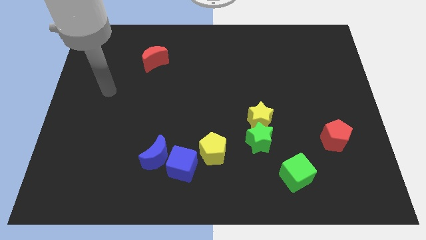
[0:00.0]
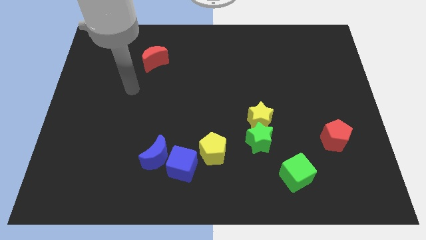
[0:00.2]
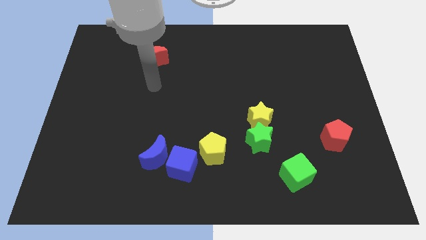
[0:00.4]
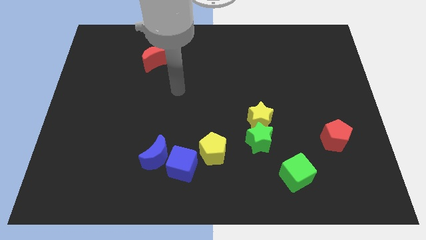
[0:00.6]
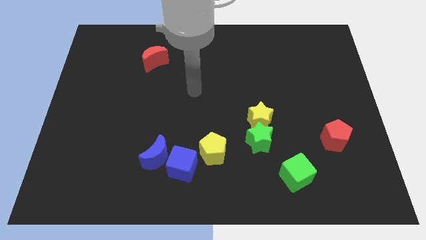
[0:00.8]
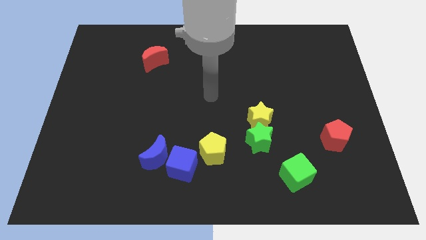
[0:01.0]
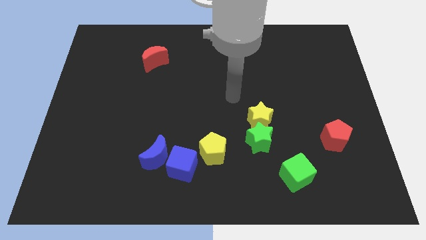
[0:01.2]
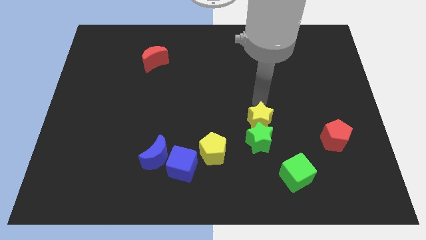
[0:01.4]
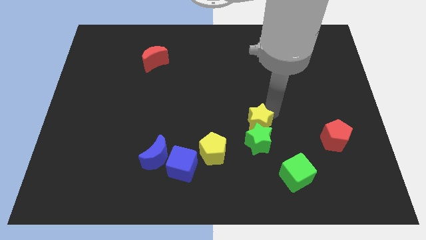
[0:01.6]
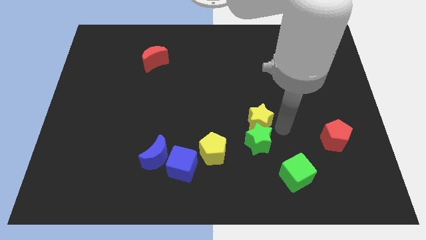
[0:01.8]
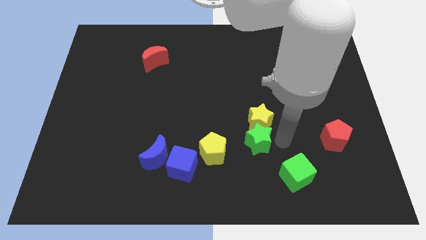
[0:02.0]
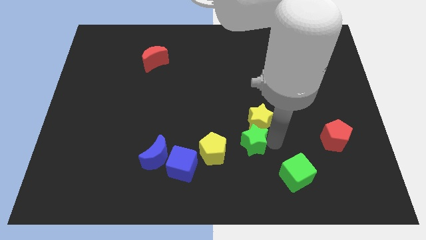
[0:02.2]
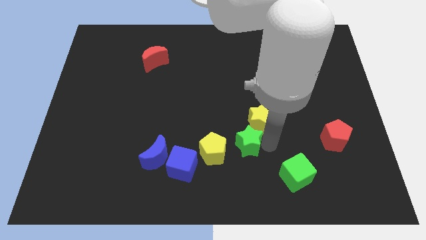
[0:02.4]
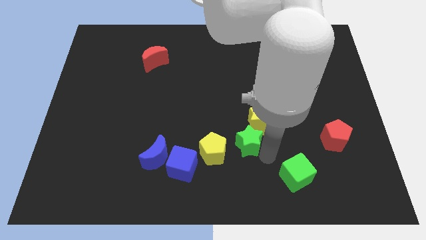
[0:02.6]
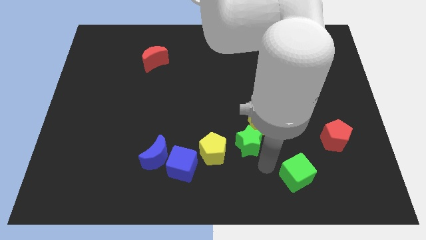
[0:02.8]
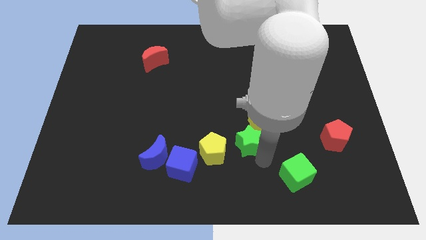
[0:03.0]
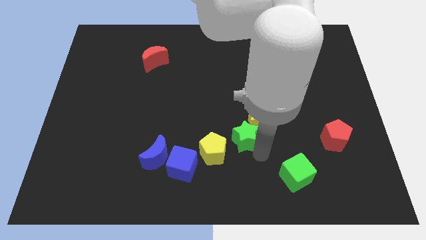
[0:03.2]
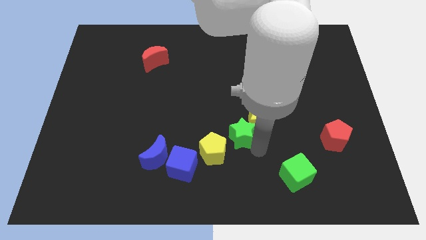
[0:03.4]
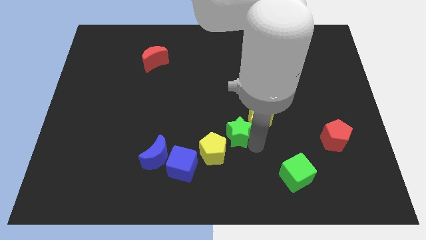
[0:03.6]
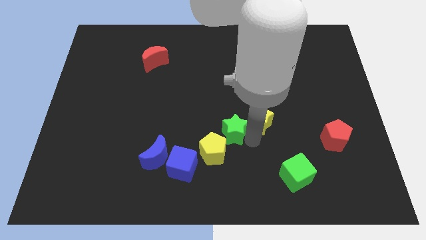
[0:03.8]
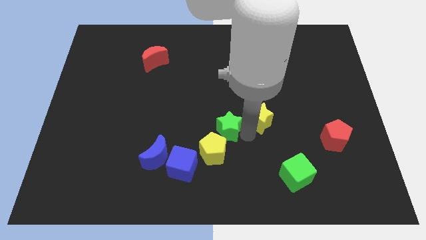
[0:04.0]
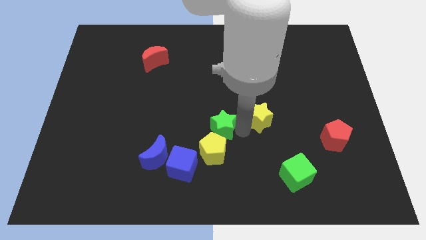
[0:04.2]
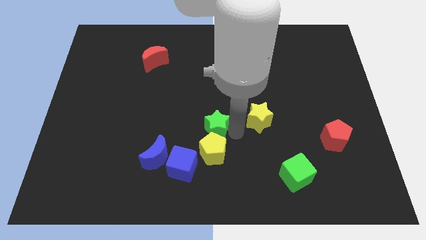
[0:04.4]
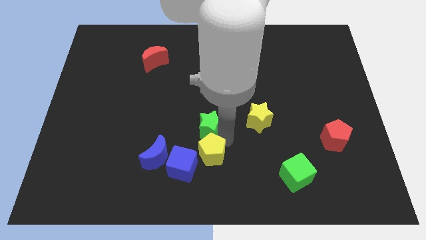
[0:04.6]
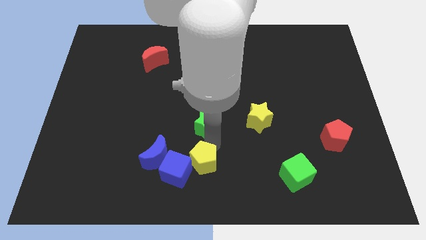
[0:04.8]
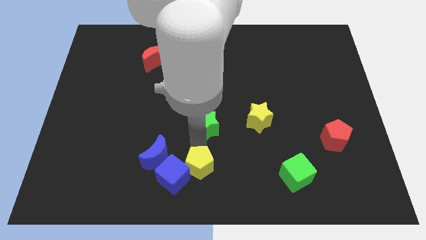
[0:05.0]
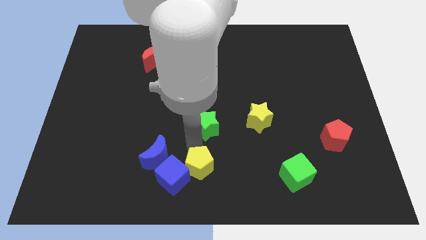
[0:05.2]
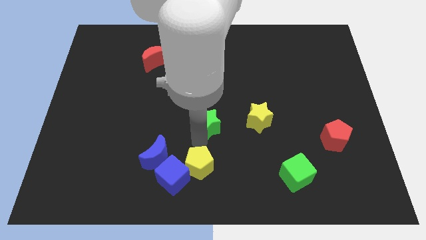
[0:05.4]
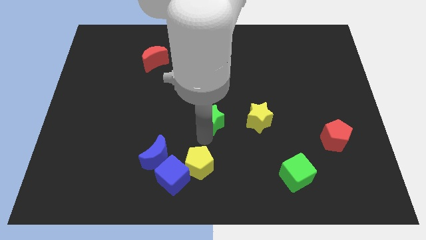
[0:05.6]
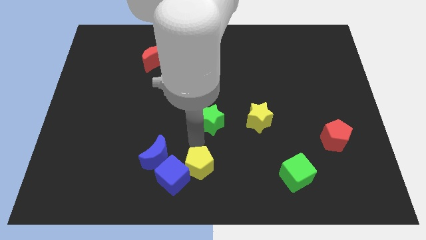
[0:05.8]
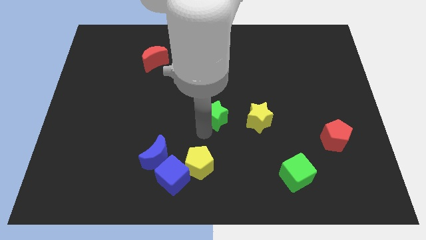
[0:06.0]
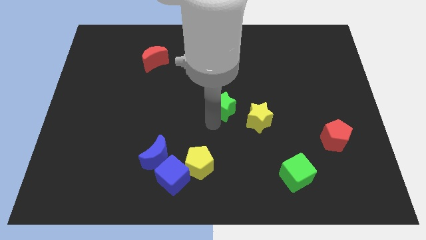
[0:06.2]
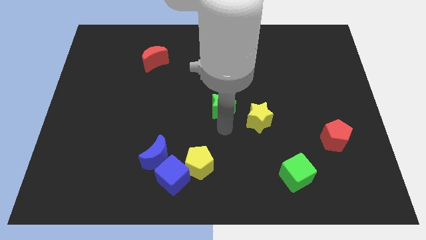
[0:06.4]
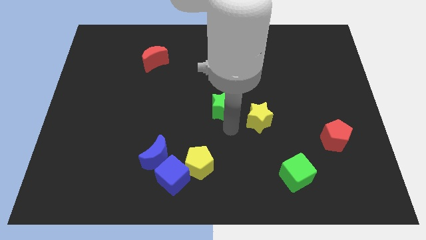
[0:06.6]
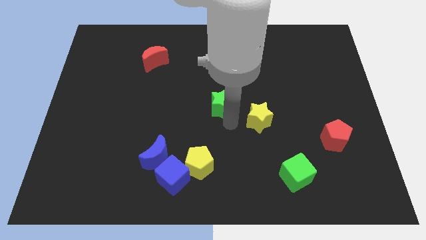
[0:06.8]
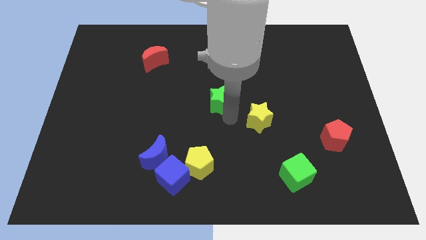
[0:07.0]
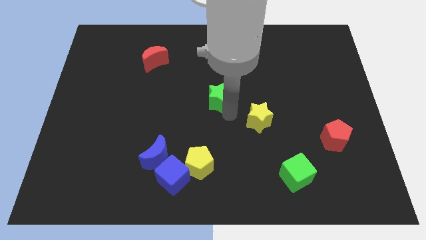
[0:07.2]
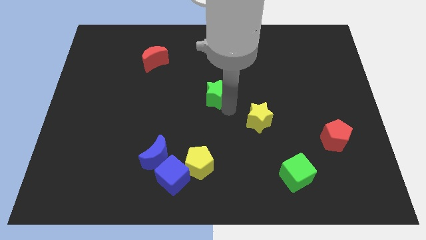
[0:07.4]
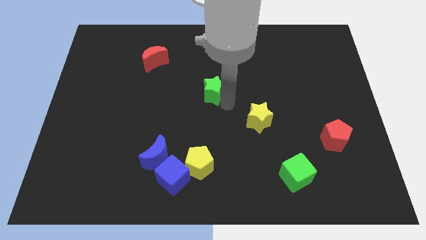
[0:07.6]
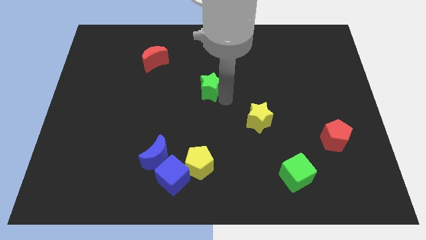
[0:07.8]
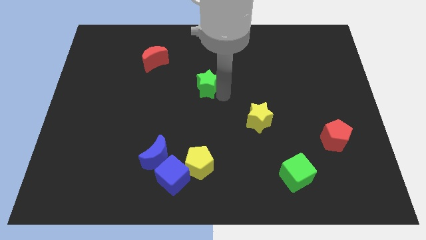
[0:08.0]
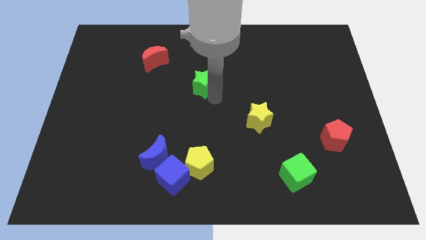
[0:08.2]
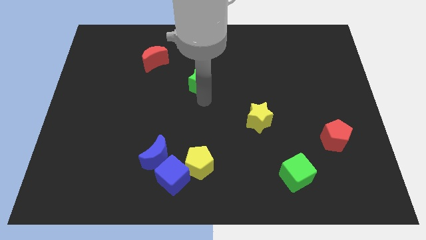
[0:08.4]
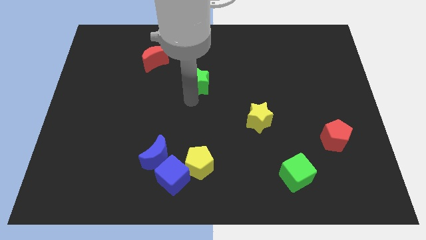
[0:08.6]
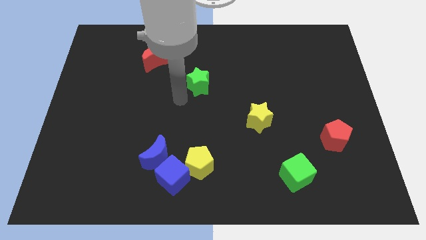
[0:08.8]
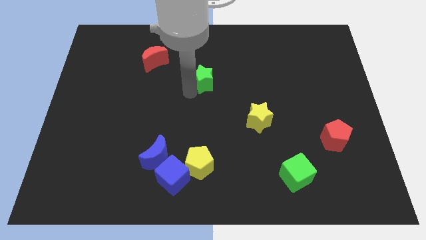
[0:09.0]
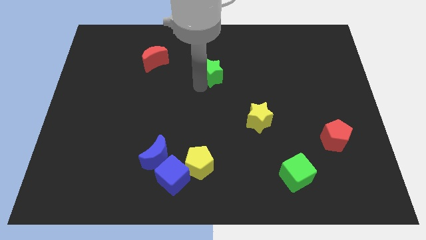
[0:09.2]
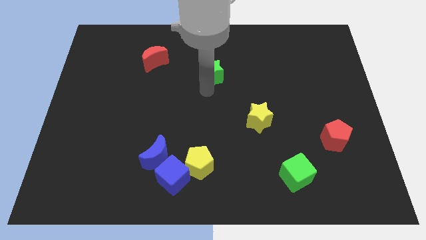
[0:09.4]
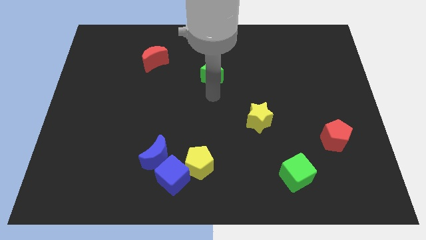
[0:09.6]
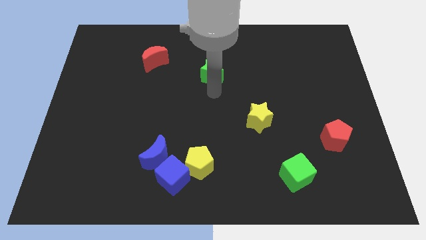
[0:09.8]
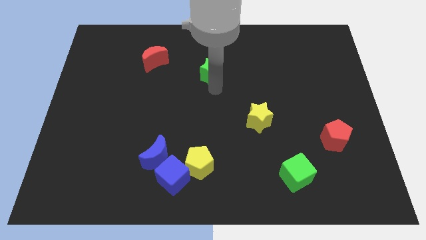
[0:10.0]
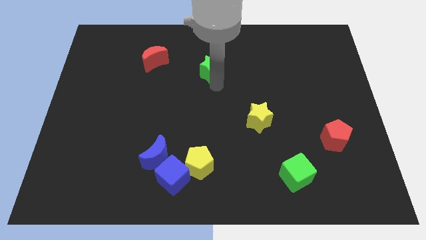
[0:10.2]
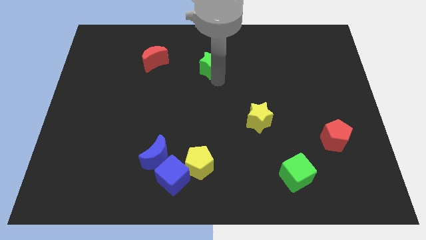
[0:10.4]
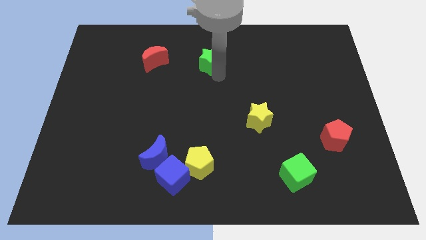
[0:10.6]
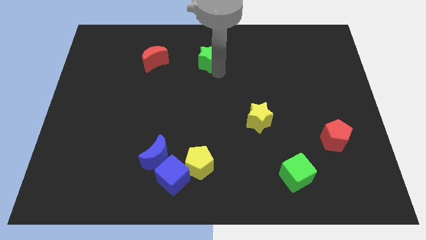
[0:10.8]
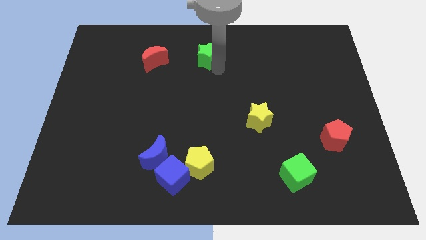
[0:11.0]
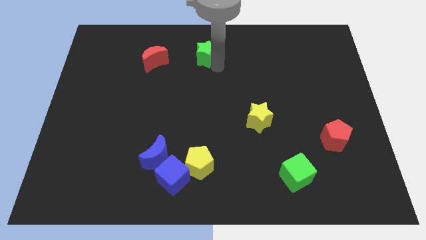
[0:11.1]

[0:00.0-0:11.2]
move the green star to the top

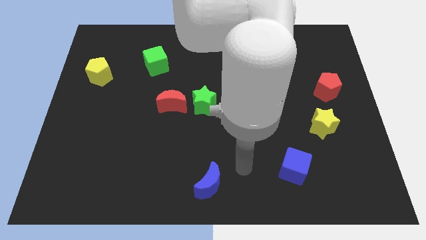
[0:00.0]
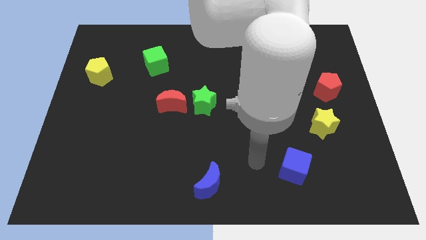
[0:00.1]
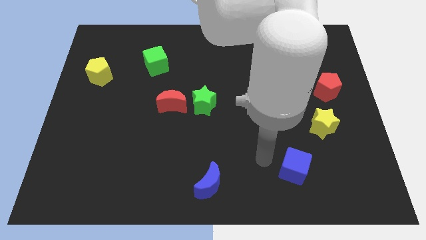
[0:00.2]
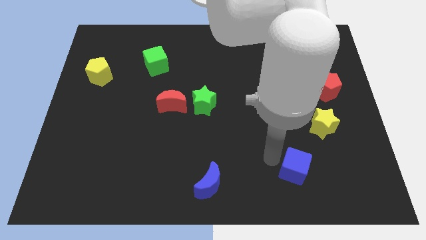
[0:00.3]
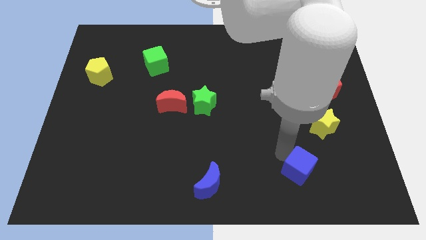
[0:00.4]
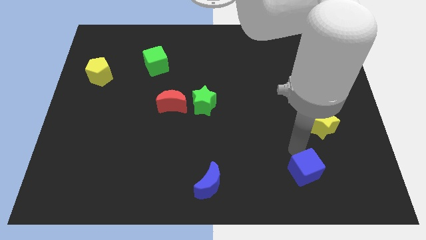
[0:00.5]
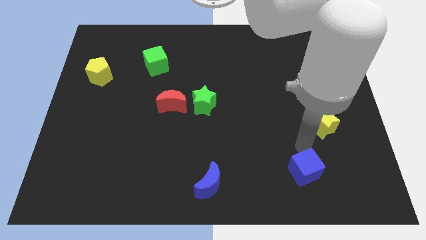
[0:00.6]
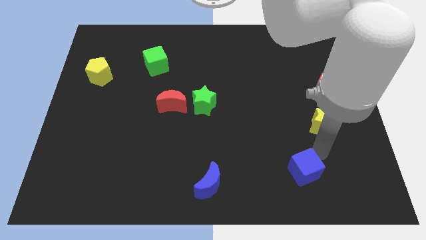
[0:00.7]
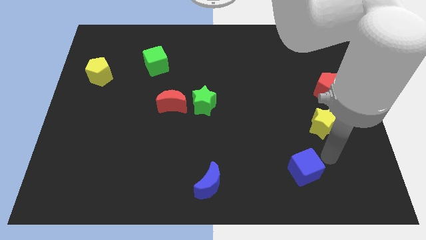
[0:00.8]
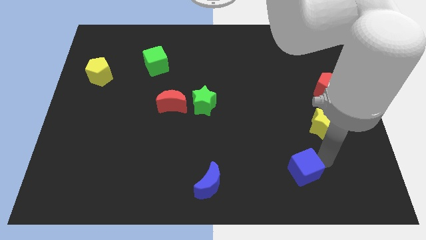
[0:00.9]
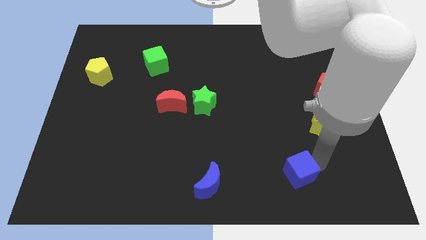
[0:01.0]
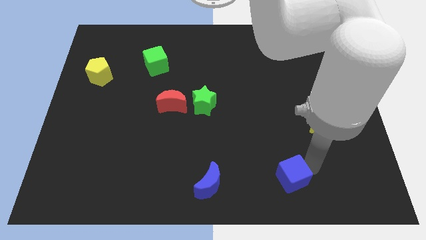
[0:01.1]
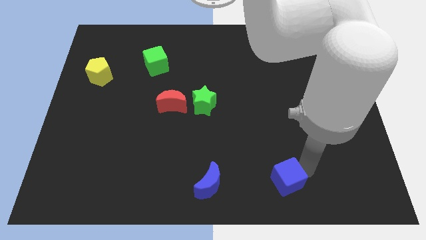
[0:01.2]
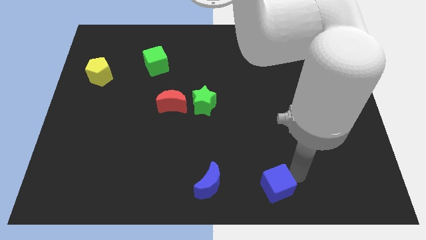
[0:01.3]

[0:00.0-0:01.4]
put the blue cube to the bottom
